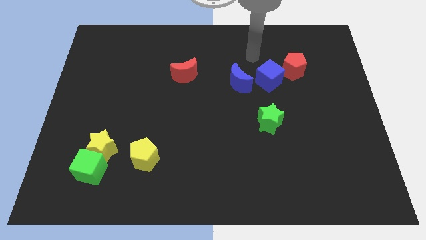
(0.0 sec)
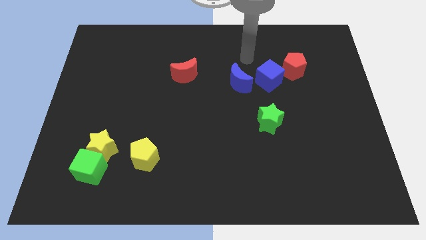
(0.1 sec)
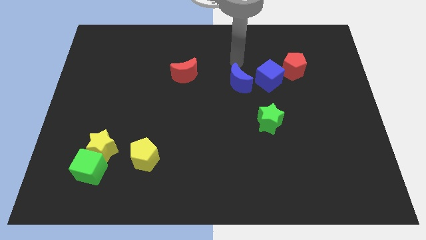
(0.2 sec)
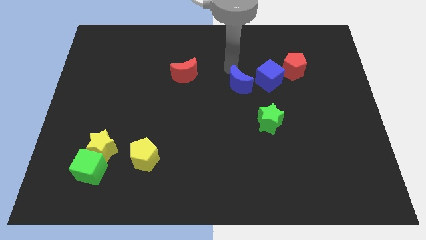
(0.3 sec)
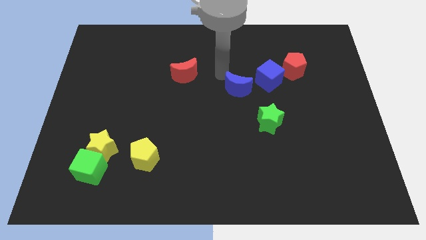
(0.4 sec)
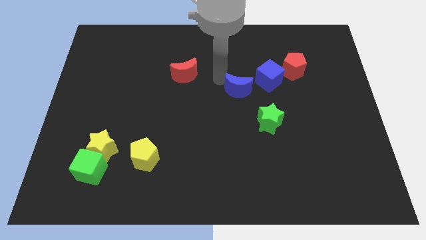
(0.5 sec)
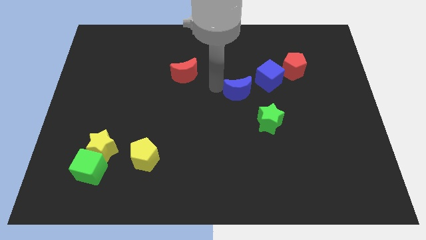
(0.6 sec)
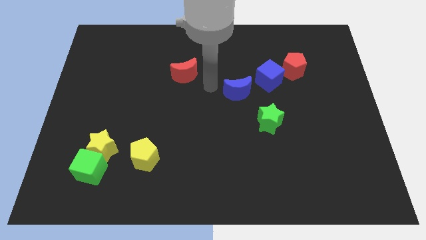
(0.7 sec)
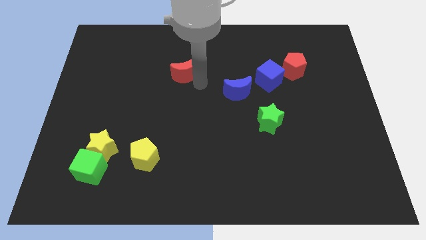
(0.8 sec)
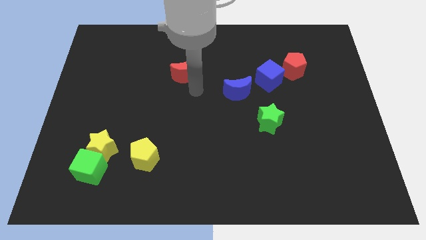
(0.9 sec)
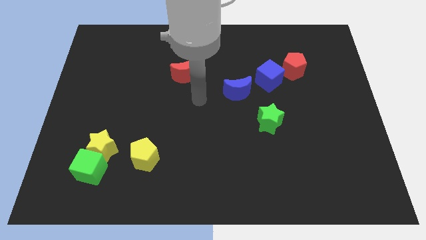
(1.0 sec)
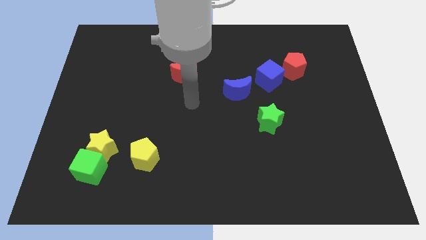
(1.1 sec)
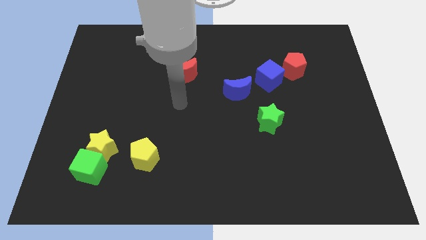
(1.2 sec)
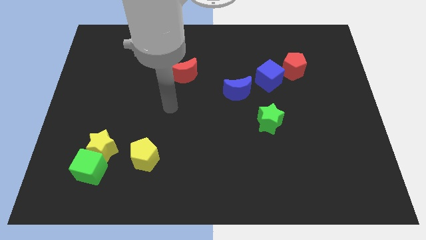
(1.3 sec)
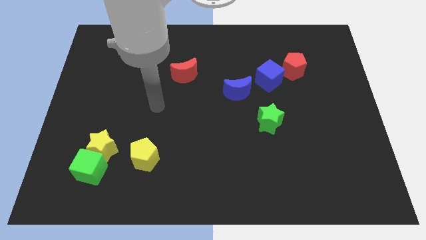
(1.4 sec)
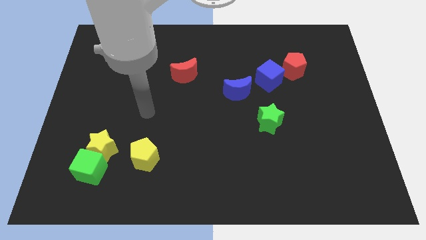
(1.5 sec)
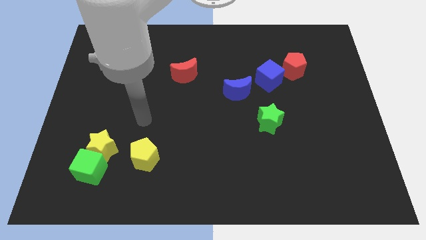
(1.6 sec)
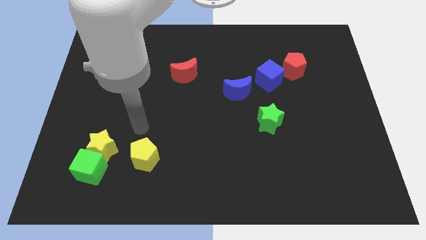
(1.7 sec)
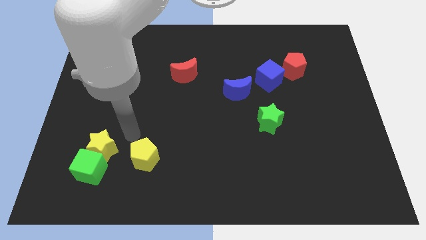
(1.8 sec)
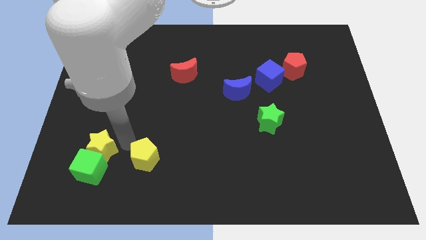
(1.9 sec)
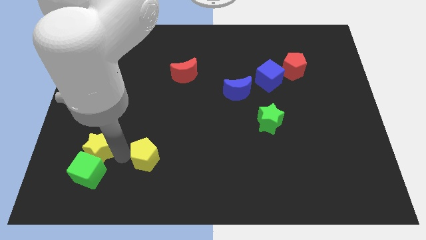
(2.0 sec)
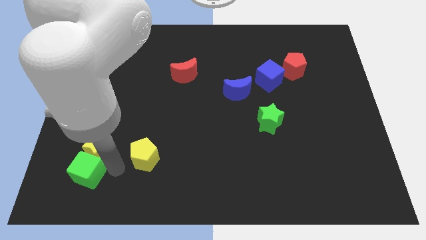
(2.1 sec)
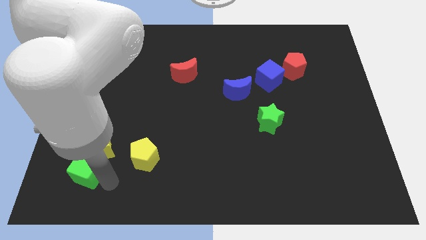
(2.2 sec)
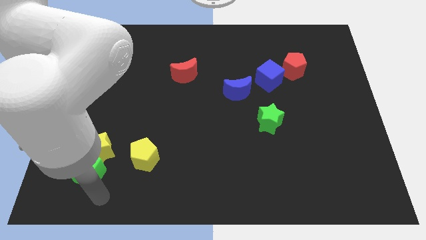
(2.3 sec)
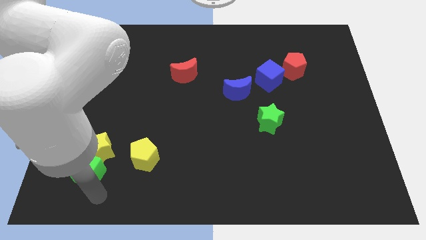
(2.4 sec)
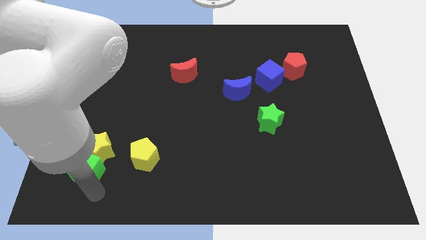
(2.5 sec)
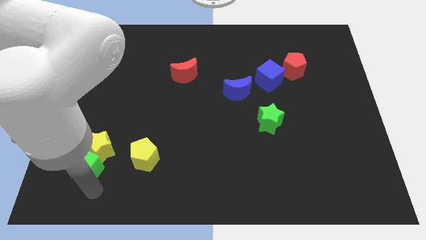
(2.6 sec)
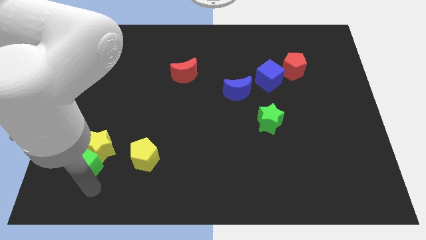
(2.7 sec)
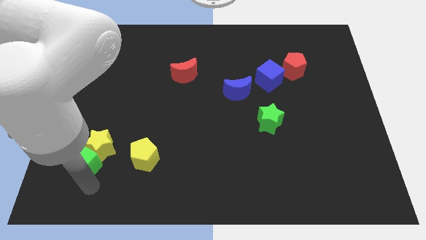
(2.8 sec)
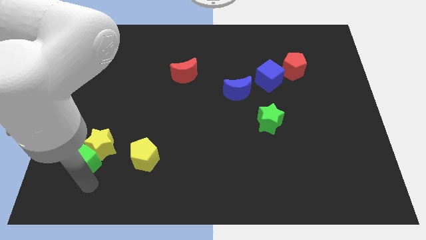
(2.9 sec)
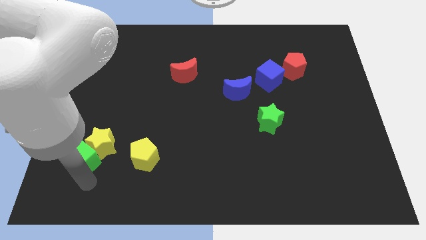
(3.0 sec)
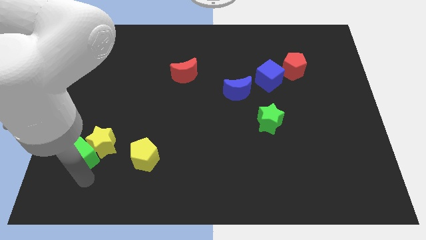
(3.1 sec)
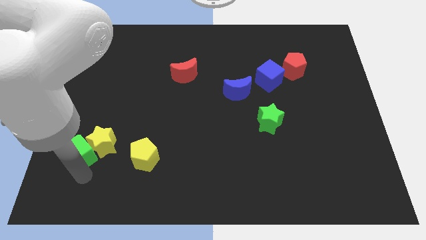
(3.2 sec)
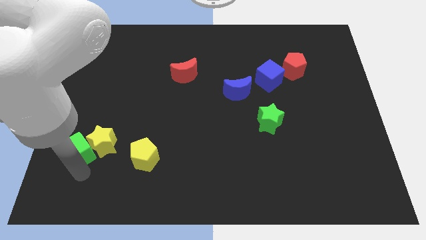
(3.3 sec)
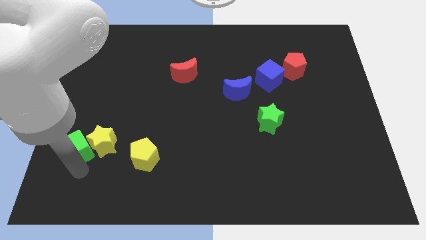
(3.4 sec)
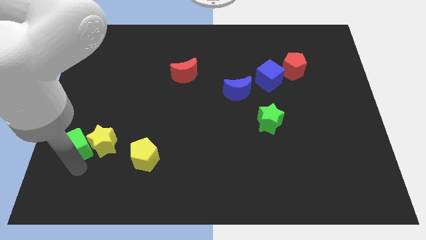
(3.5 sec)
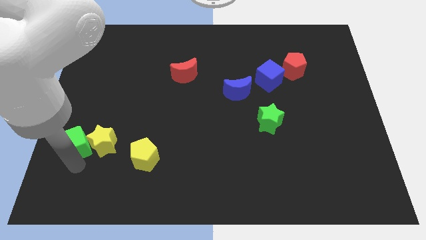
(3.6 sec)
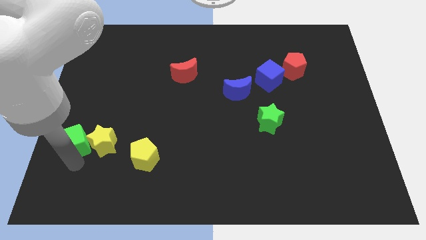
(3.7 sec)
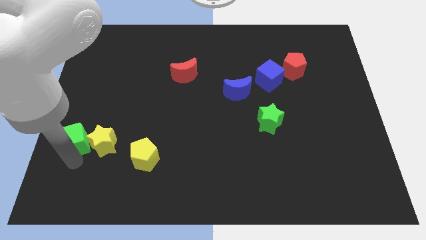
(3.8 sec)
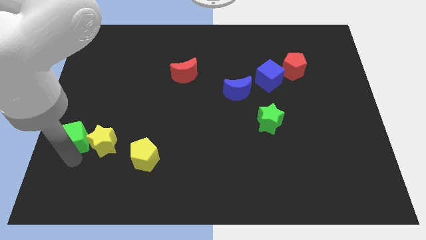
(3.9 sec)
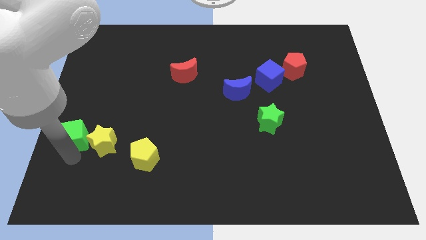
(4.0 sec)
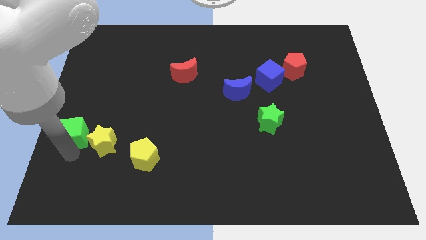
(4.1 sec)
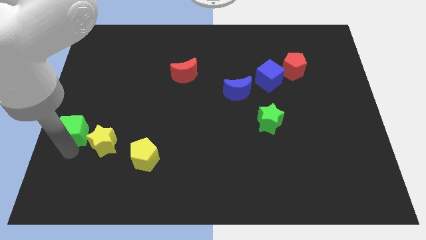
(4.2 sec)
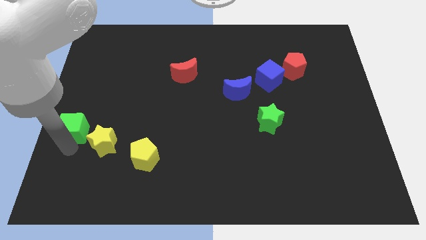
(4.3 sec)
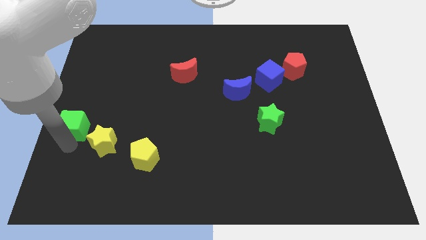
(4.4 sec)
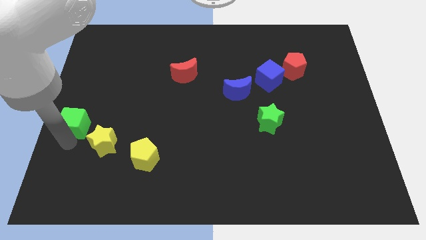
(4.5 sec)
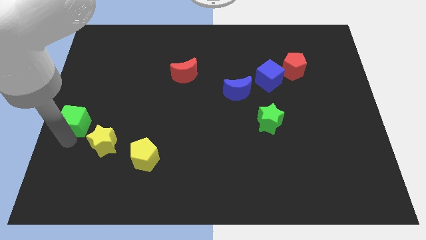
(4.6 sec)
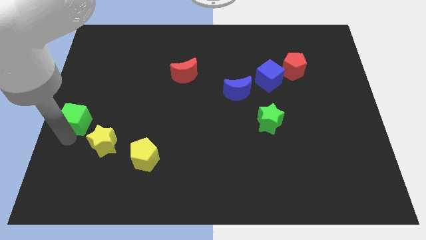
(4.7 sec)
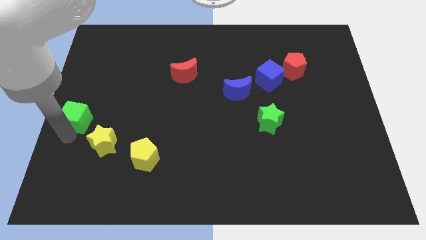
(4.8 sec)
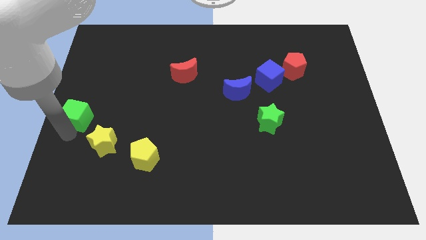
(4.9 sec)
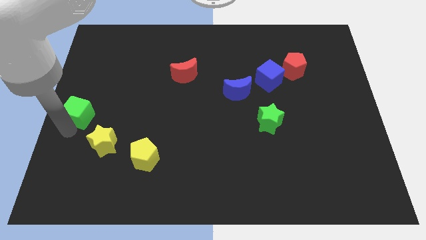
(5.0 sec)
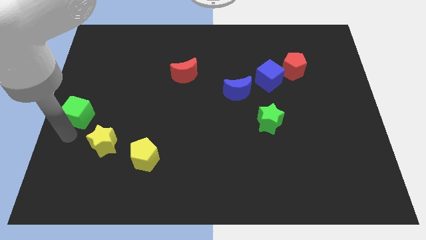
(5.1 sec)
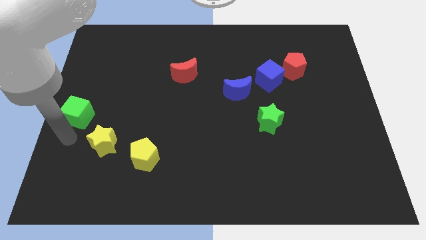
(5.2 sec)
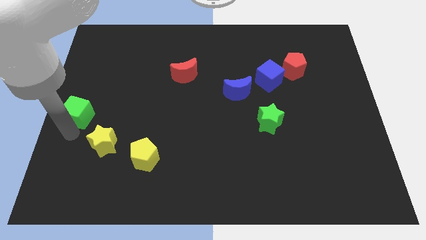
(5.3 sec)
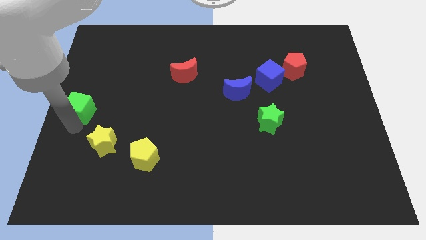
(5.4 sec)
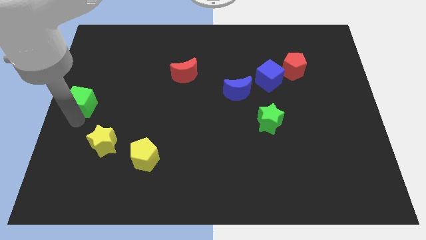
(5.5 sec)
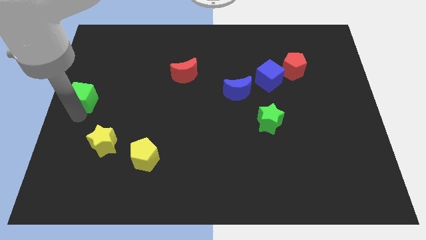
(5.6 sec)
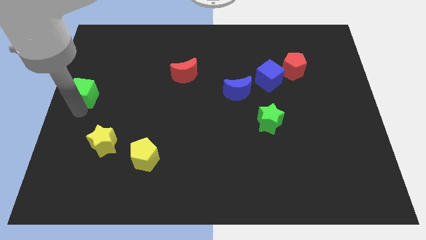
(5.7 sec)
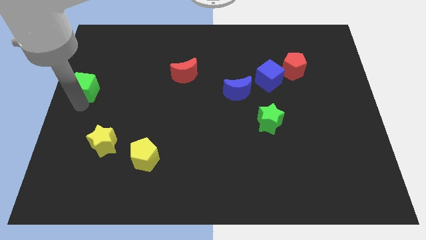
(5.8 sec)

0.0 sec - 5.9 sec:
push the green cube up

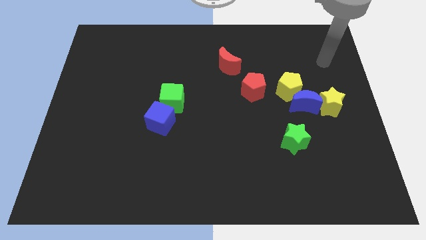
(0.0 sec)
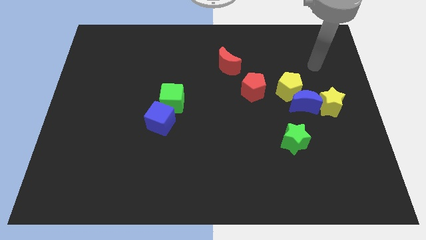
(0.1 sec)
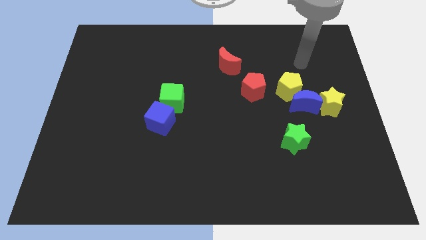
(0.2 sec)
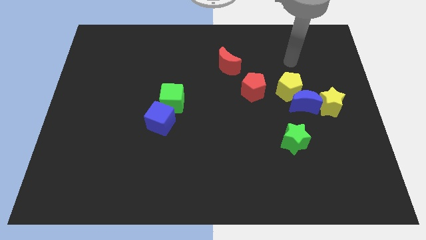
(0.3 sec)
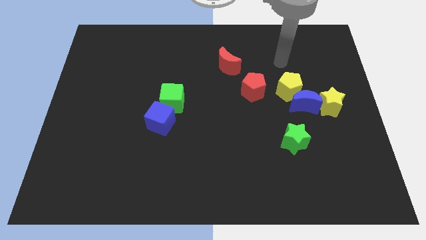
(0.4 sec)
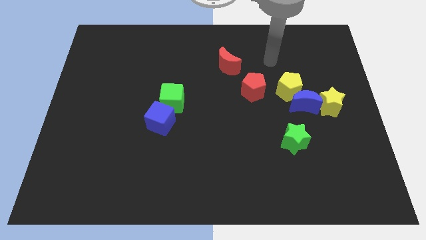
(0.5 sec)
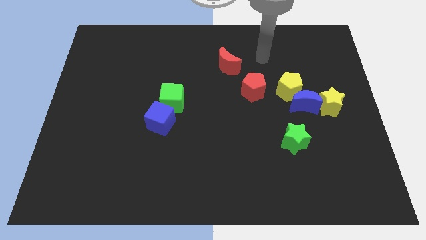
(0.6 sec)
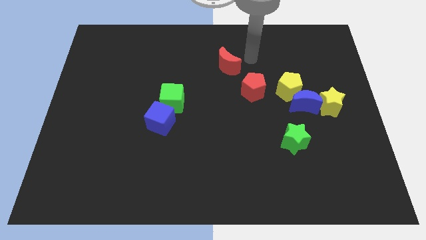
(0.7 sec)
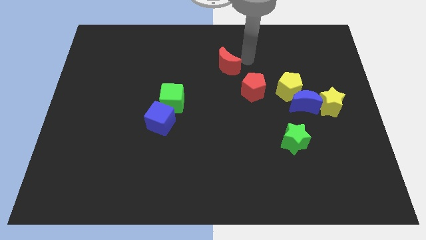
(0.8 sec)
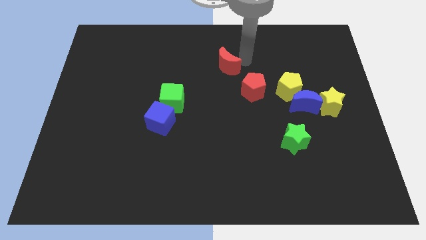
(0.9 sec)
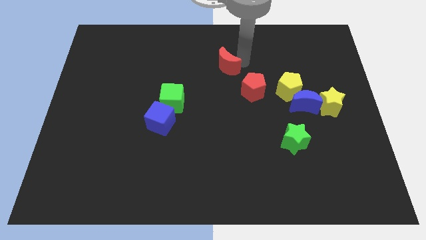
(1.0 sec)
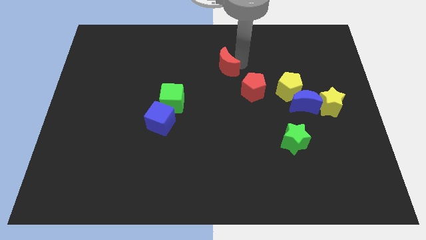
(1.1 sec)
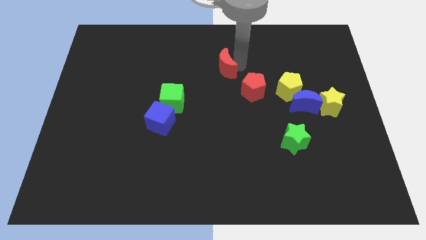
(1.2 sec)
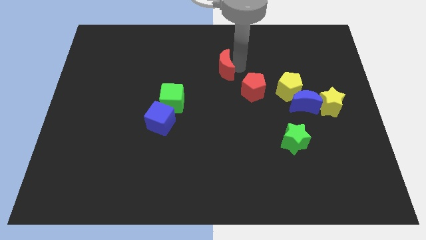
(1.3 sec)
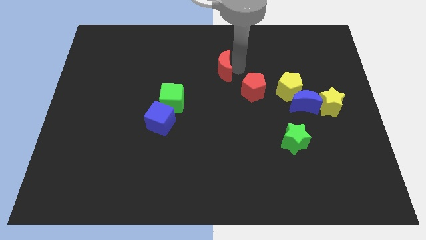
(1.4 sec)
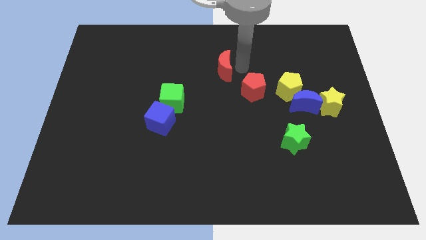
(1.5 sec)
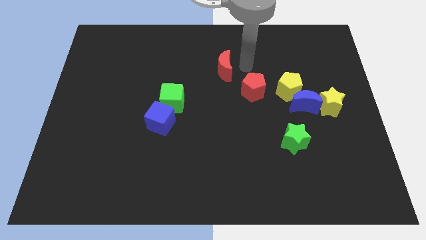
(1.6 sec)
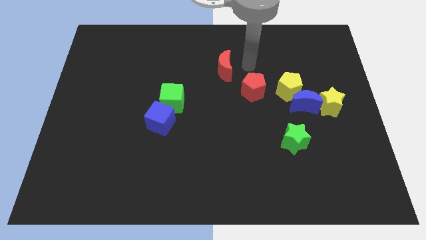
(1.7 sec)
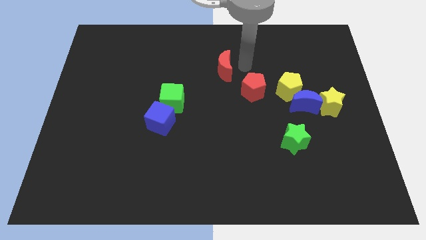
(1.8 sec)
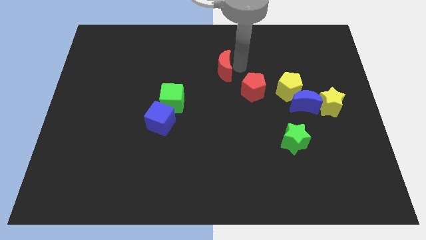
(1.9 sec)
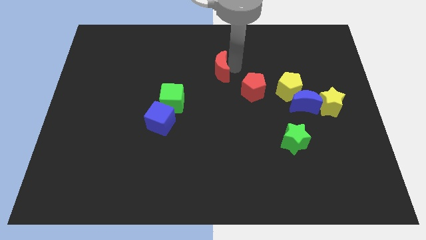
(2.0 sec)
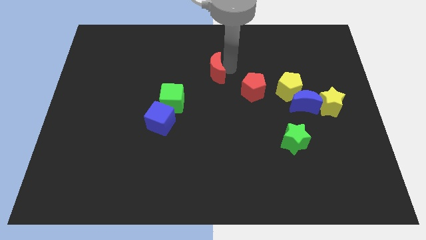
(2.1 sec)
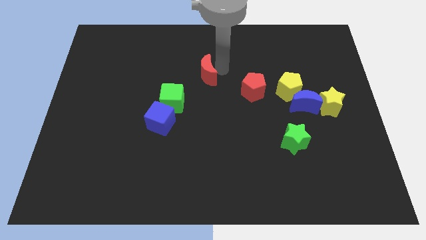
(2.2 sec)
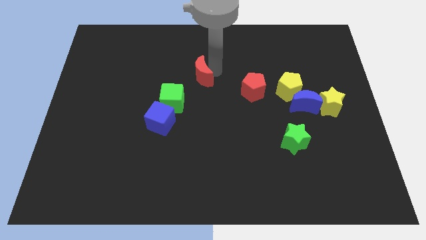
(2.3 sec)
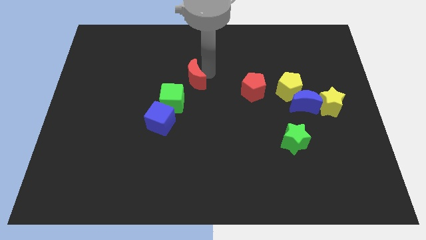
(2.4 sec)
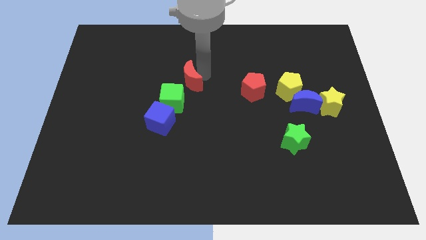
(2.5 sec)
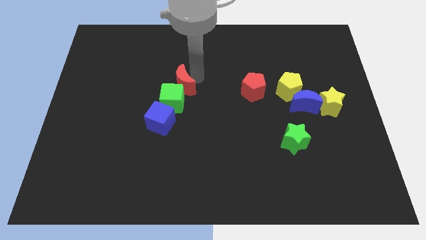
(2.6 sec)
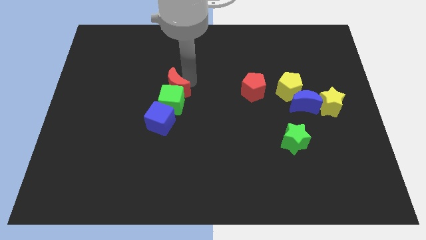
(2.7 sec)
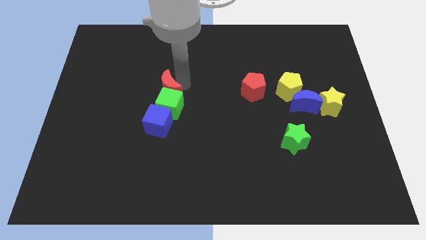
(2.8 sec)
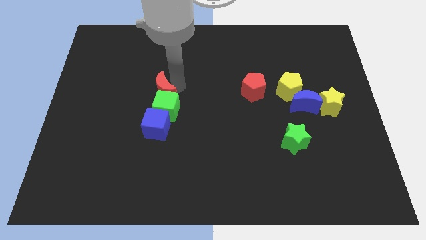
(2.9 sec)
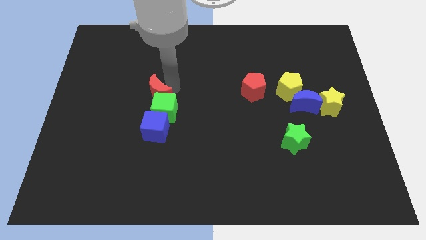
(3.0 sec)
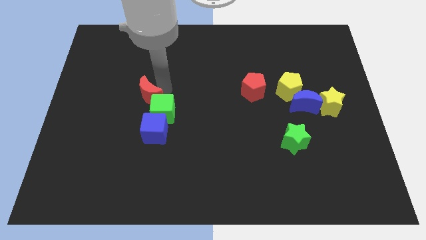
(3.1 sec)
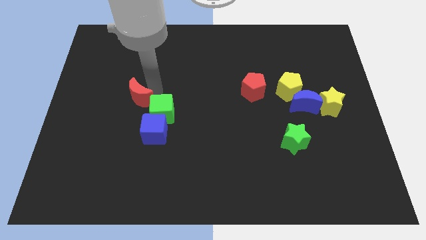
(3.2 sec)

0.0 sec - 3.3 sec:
move the red moon down and left
